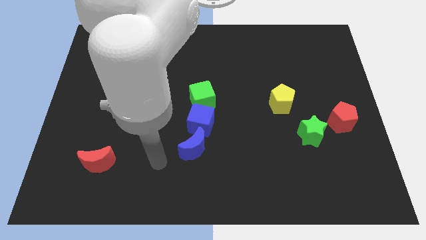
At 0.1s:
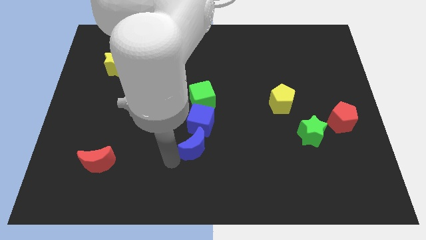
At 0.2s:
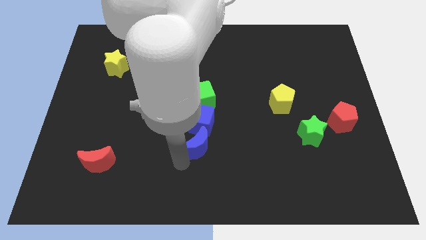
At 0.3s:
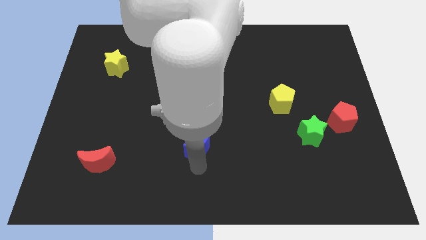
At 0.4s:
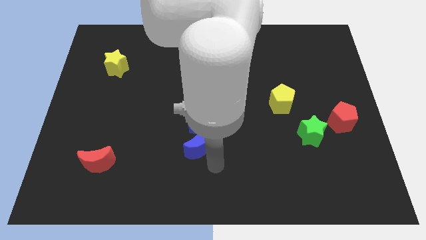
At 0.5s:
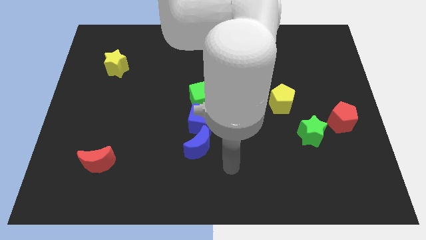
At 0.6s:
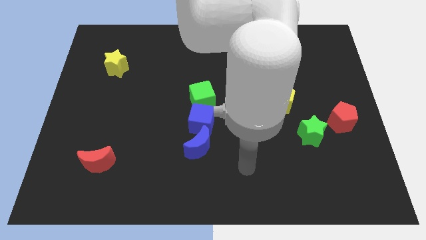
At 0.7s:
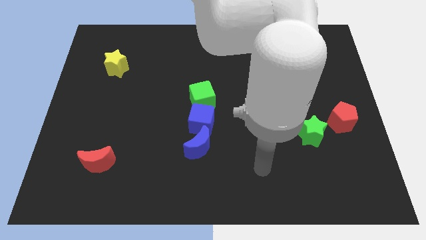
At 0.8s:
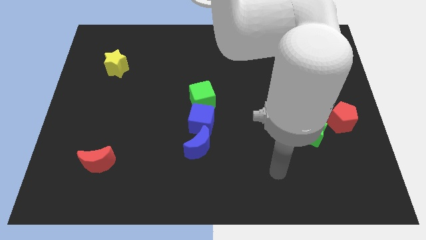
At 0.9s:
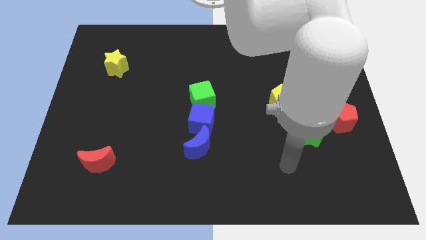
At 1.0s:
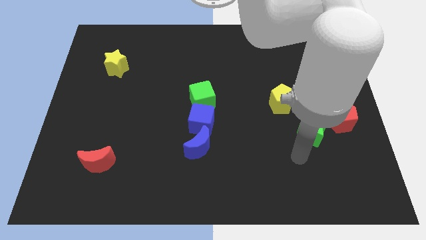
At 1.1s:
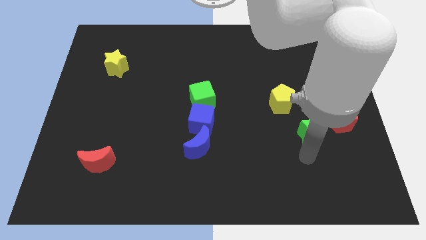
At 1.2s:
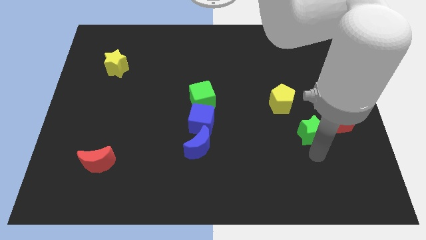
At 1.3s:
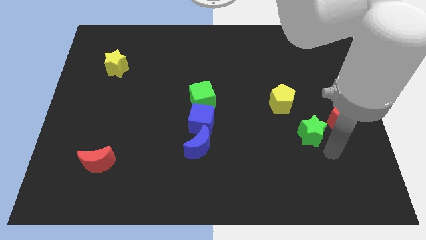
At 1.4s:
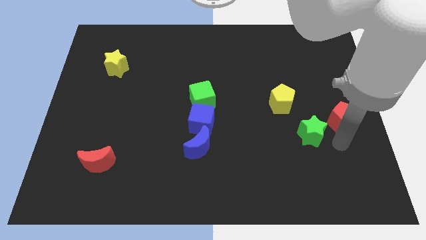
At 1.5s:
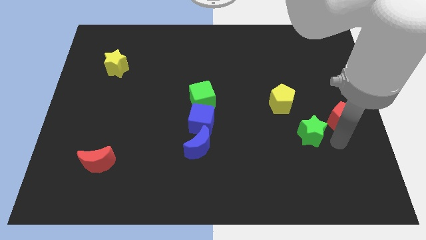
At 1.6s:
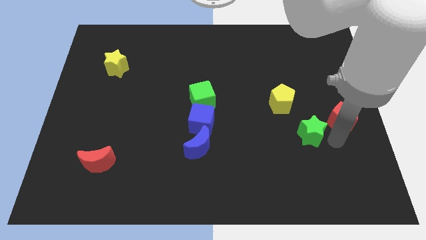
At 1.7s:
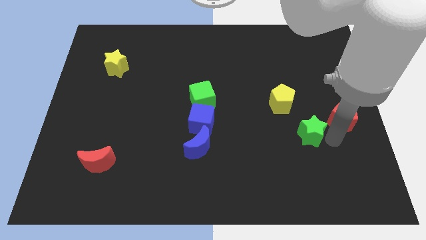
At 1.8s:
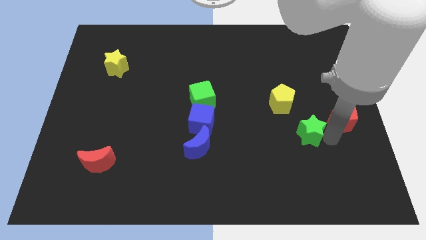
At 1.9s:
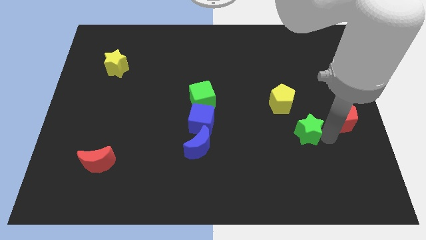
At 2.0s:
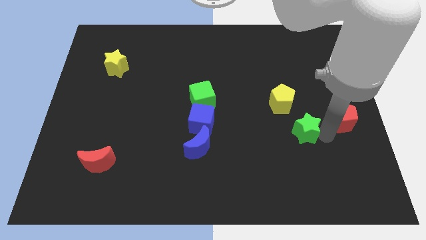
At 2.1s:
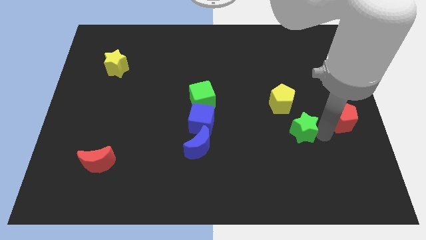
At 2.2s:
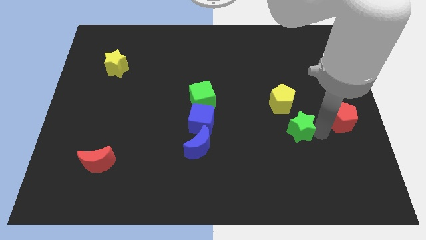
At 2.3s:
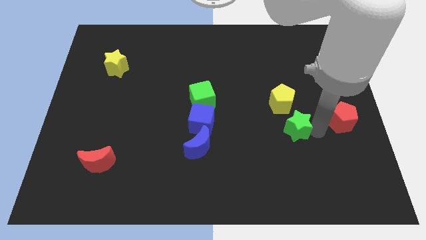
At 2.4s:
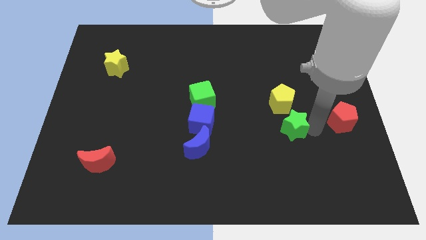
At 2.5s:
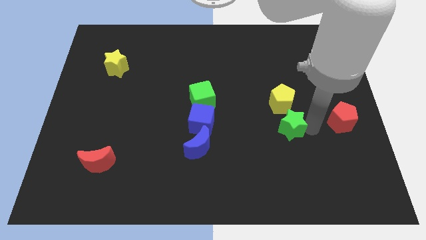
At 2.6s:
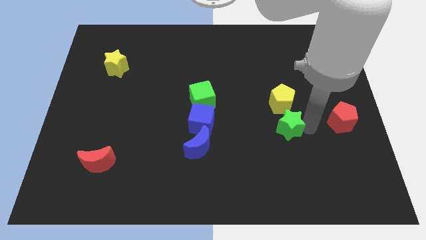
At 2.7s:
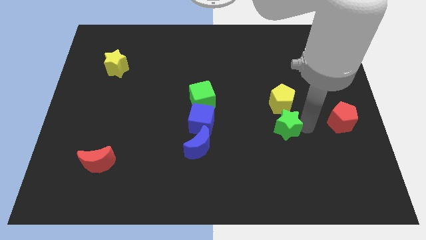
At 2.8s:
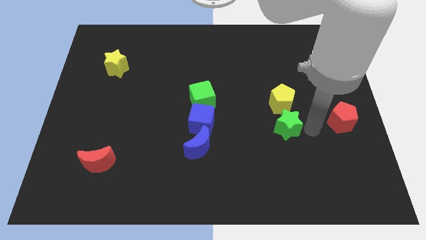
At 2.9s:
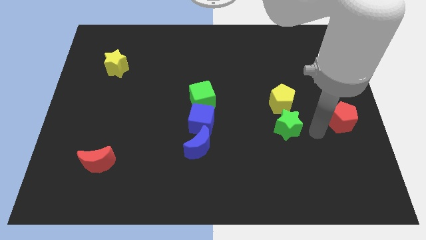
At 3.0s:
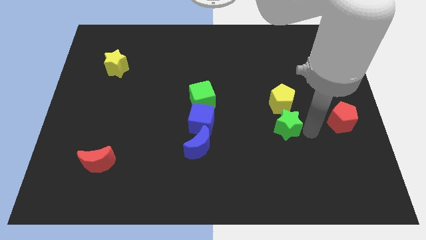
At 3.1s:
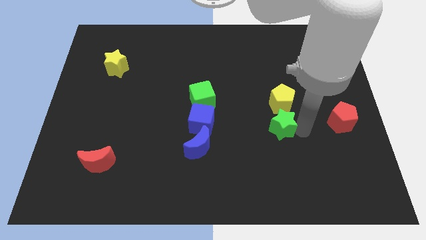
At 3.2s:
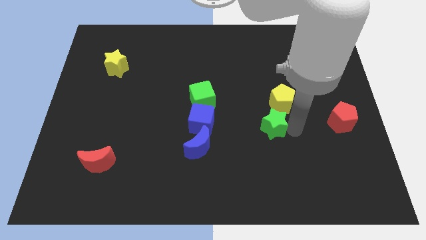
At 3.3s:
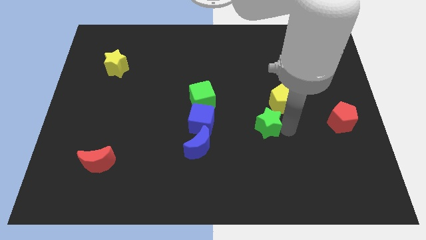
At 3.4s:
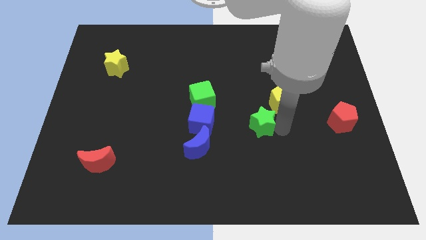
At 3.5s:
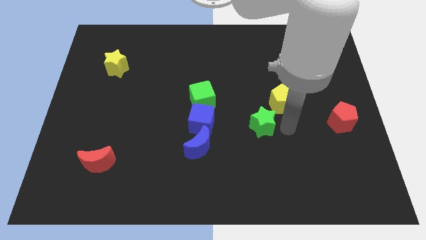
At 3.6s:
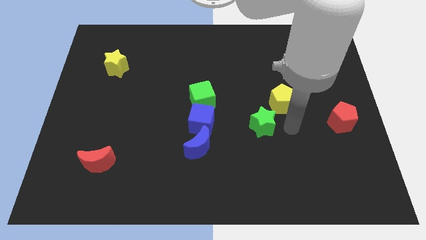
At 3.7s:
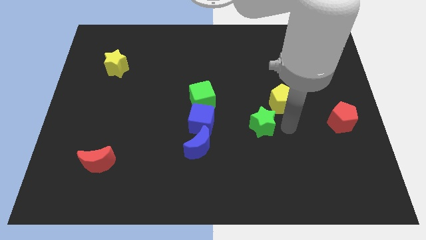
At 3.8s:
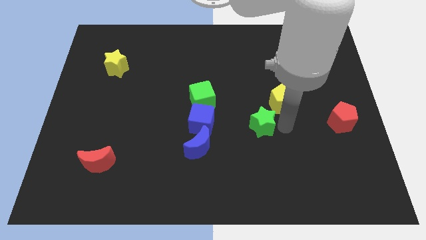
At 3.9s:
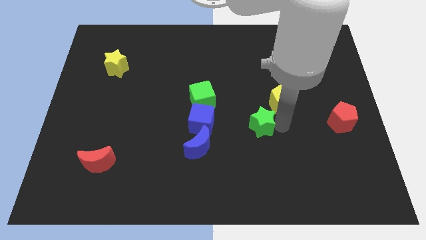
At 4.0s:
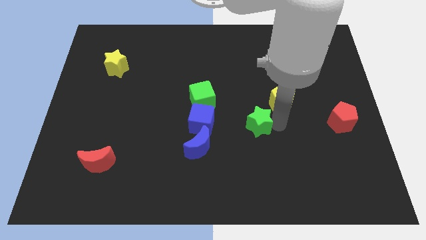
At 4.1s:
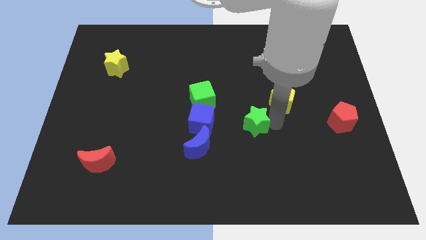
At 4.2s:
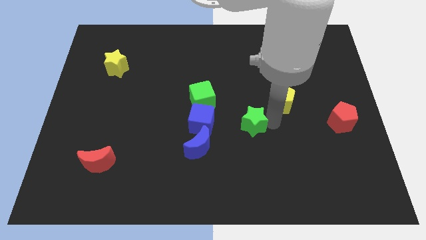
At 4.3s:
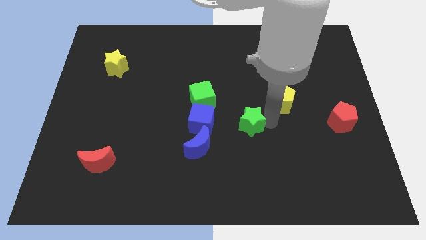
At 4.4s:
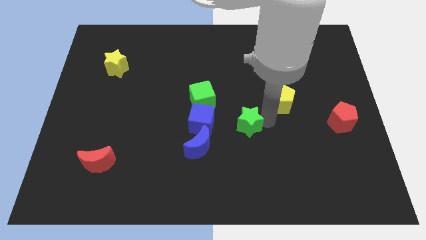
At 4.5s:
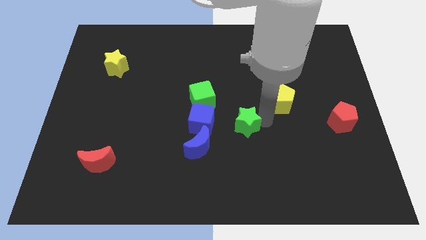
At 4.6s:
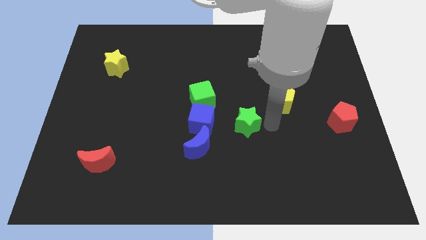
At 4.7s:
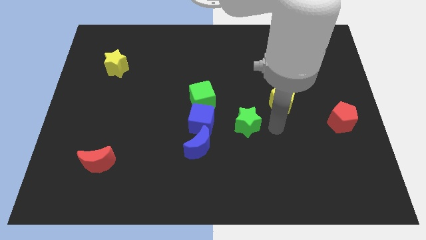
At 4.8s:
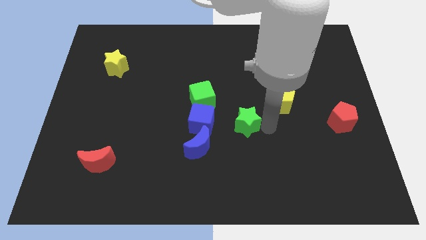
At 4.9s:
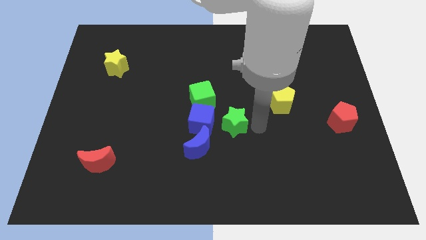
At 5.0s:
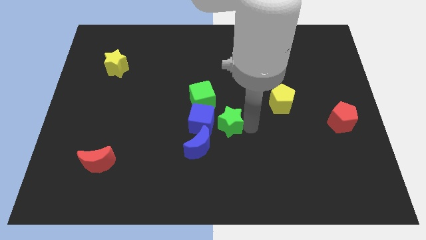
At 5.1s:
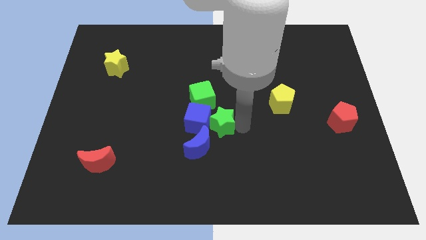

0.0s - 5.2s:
push the green star towards the blue cube

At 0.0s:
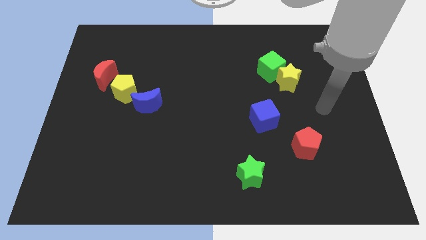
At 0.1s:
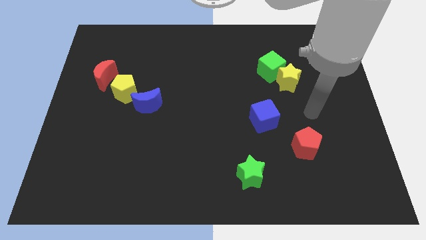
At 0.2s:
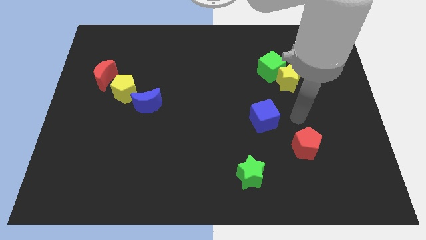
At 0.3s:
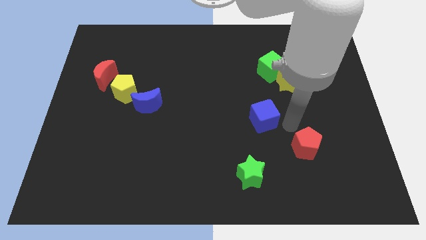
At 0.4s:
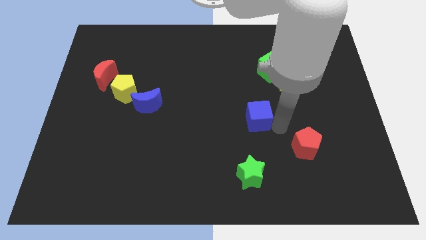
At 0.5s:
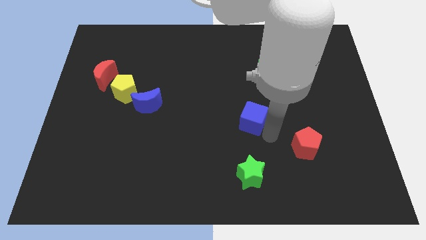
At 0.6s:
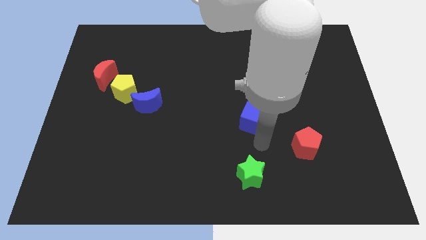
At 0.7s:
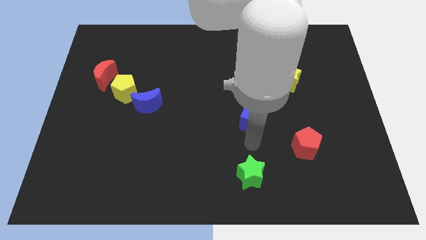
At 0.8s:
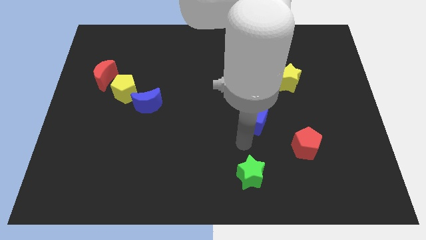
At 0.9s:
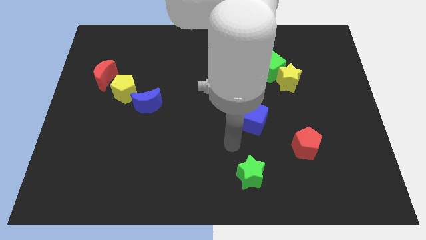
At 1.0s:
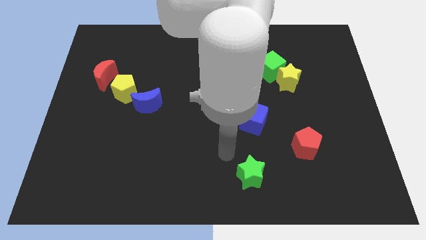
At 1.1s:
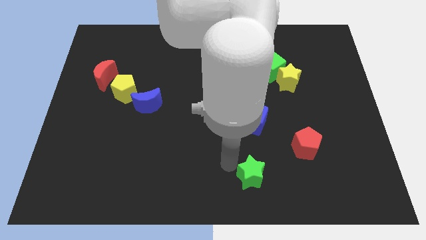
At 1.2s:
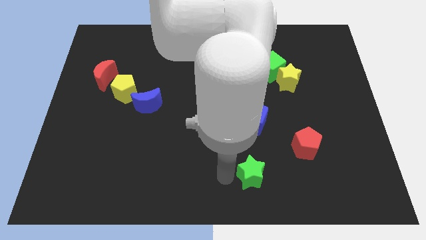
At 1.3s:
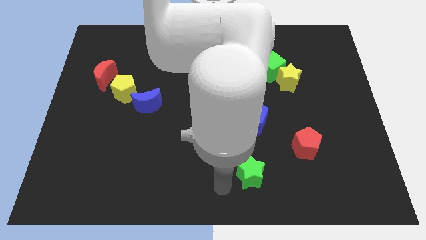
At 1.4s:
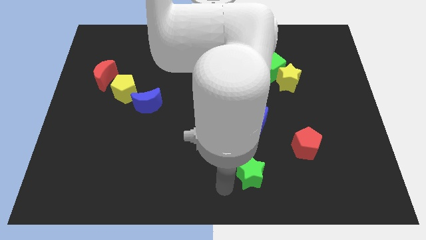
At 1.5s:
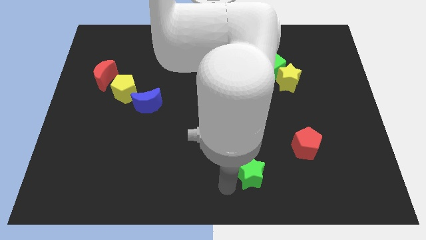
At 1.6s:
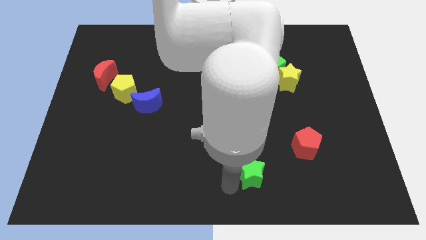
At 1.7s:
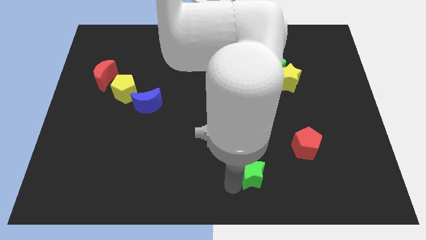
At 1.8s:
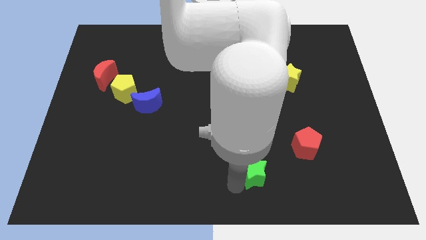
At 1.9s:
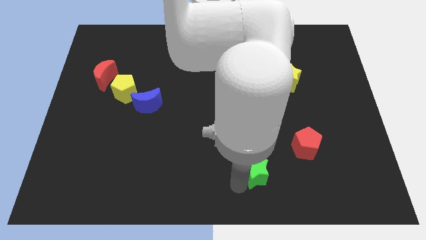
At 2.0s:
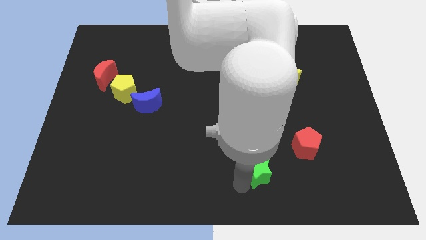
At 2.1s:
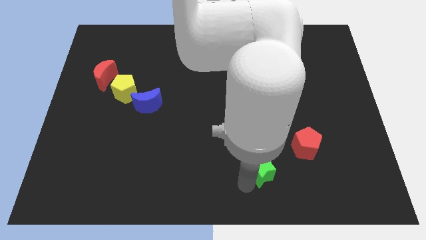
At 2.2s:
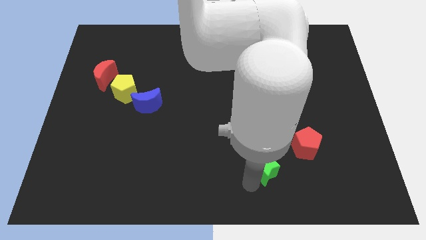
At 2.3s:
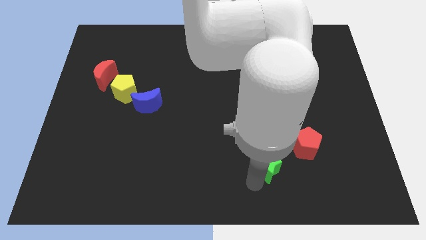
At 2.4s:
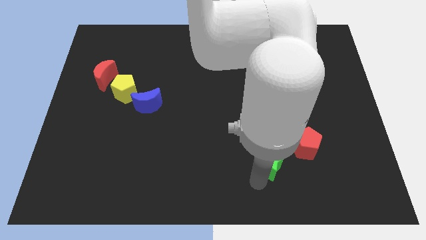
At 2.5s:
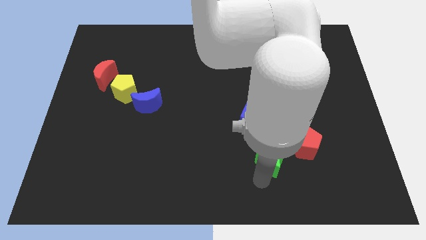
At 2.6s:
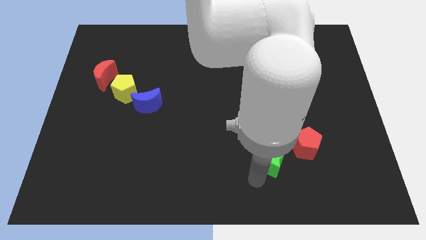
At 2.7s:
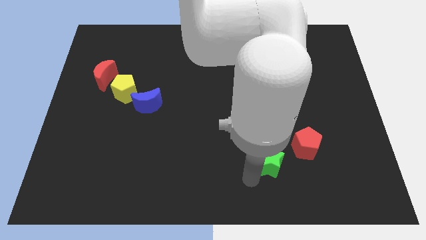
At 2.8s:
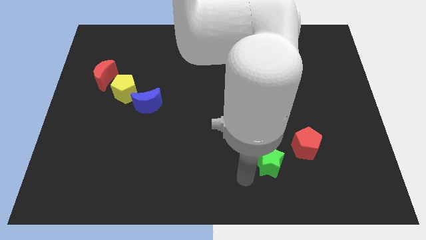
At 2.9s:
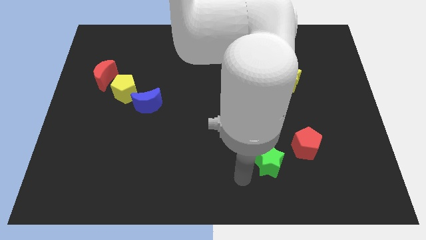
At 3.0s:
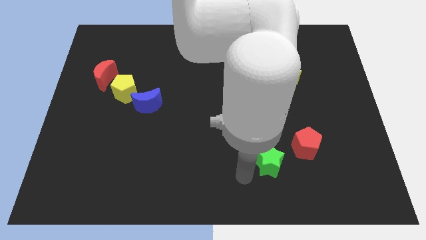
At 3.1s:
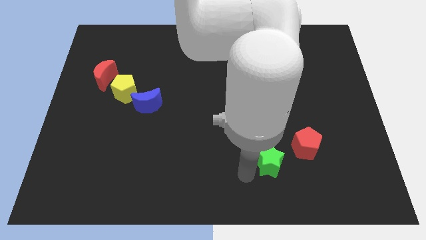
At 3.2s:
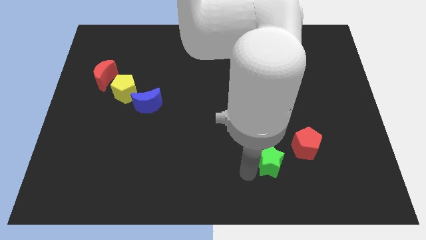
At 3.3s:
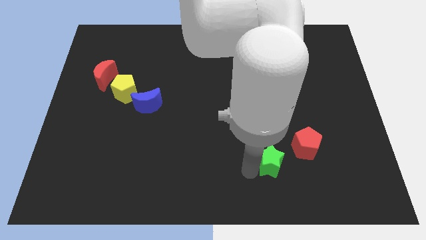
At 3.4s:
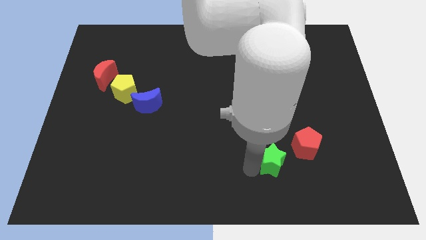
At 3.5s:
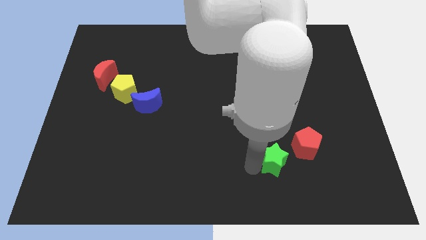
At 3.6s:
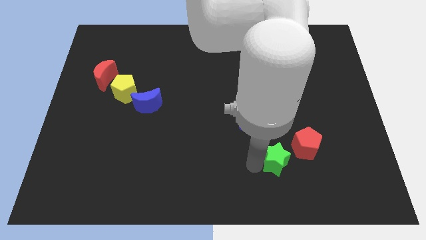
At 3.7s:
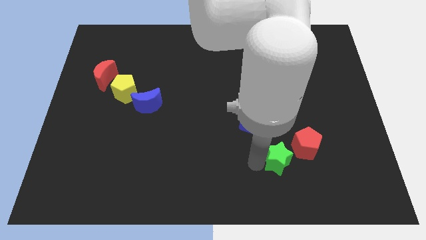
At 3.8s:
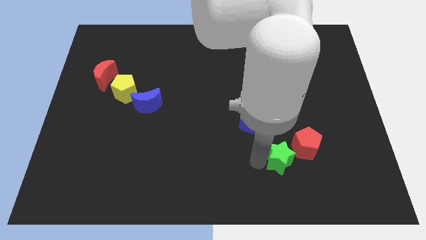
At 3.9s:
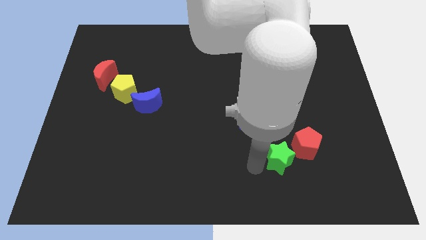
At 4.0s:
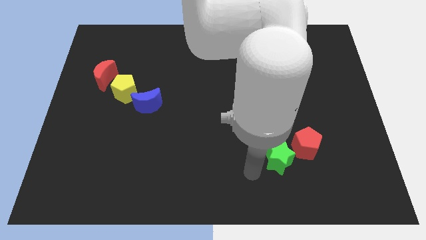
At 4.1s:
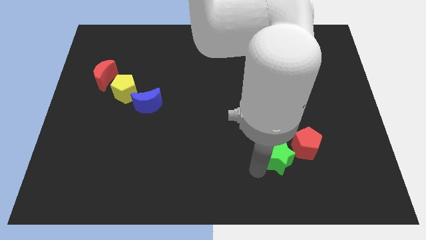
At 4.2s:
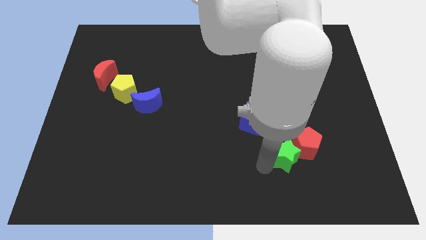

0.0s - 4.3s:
move the green star towards the red pentagon
